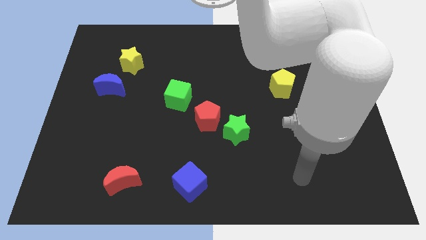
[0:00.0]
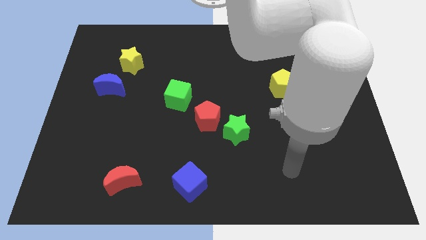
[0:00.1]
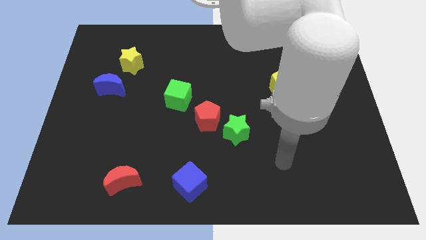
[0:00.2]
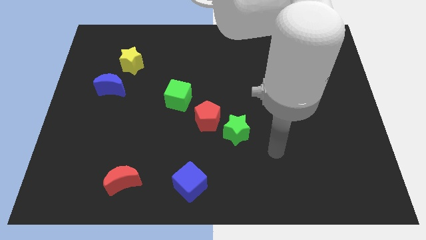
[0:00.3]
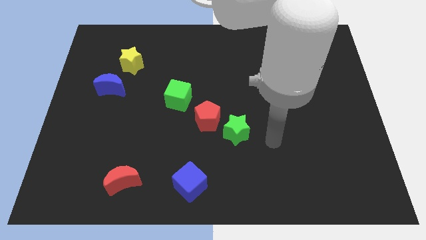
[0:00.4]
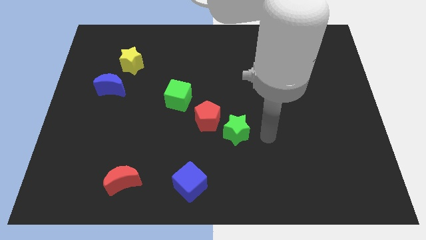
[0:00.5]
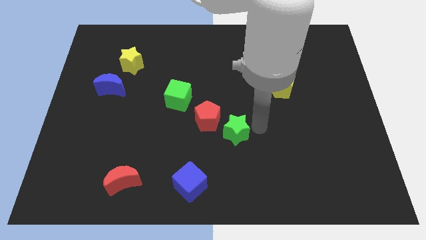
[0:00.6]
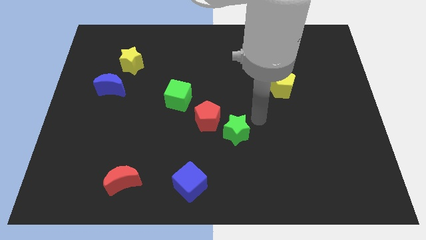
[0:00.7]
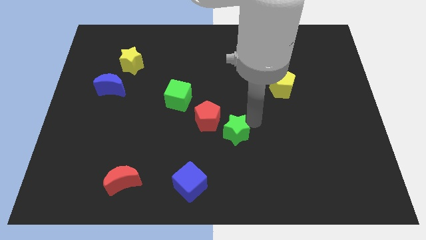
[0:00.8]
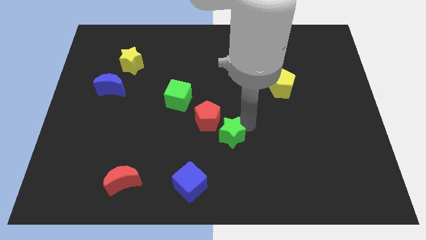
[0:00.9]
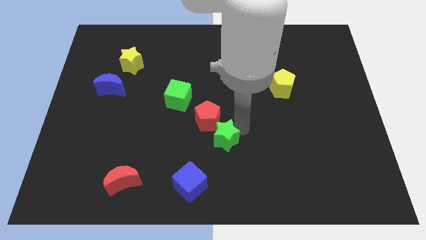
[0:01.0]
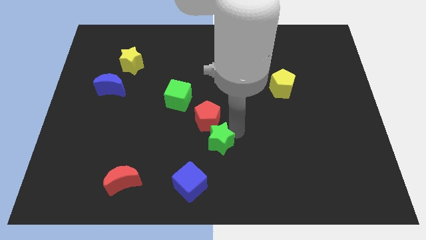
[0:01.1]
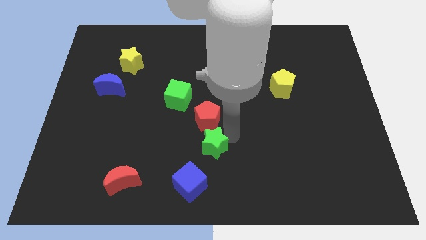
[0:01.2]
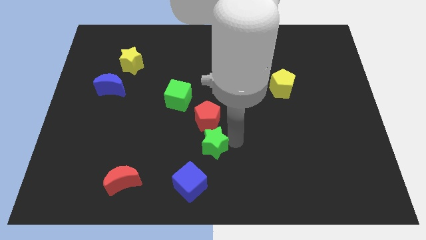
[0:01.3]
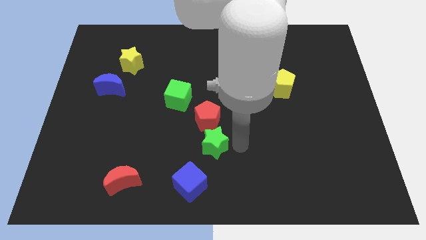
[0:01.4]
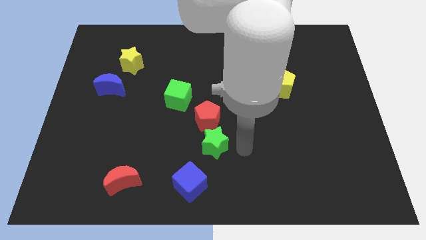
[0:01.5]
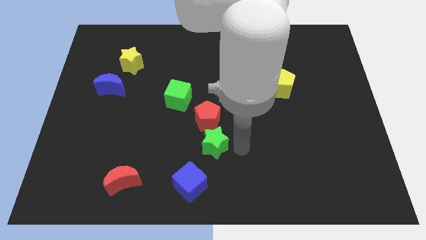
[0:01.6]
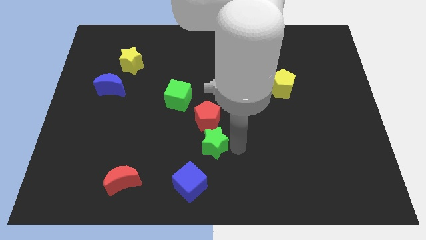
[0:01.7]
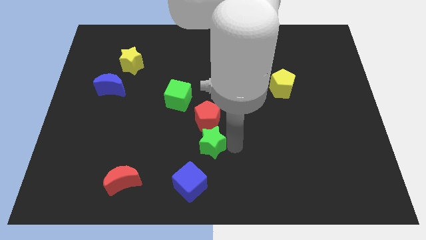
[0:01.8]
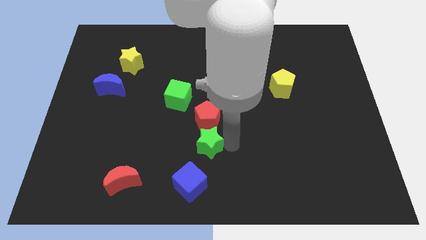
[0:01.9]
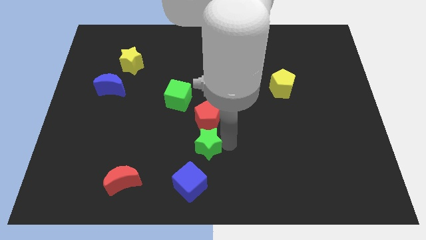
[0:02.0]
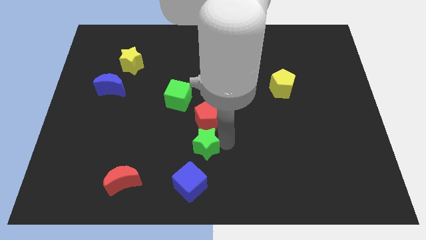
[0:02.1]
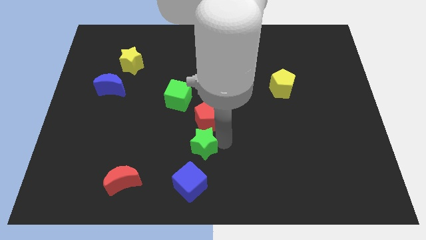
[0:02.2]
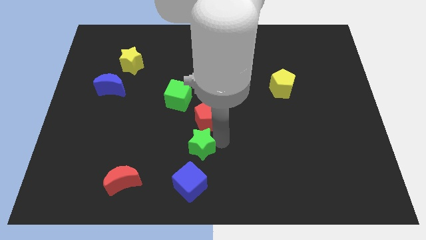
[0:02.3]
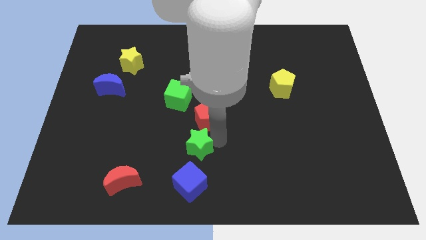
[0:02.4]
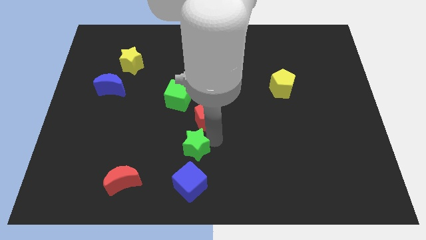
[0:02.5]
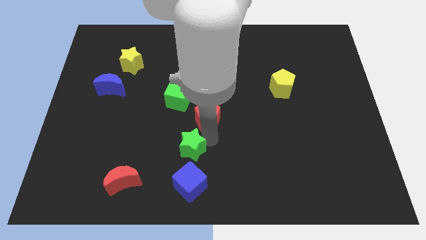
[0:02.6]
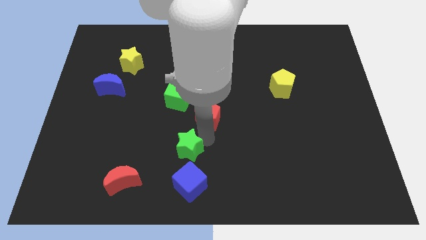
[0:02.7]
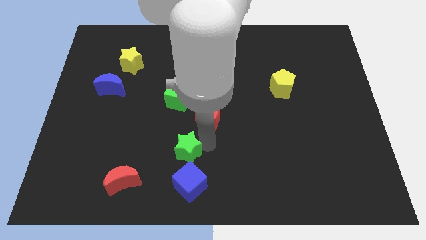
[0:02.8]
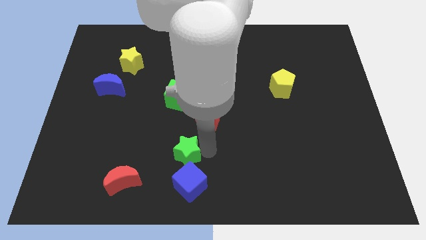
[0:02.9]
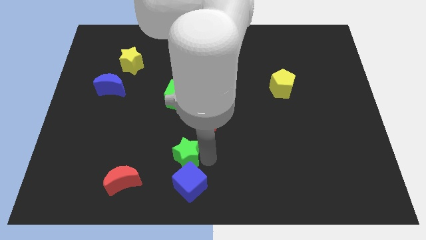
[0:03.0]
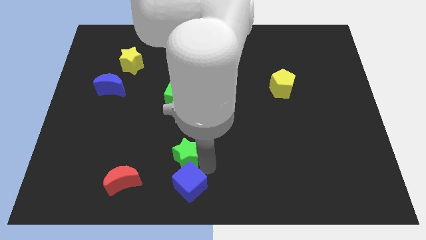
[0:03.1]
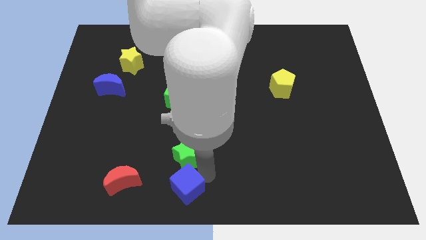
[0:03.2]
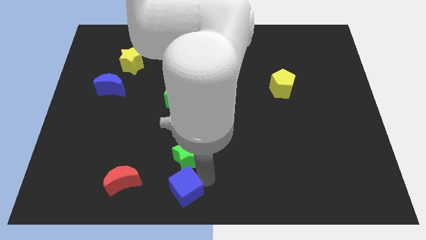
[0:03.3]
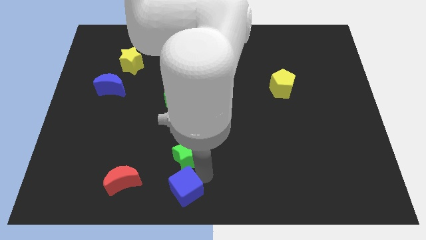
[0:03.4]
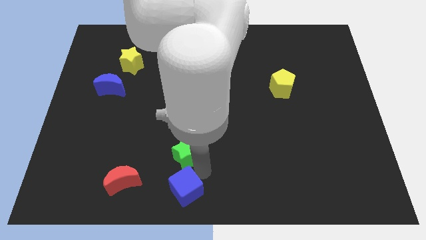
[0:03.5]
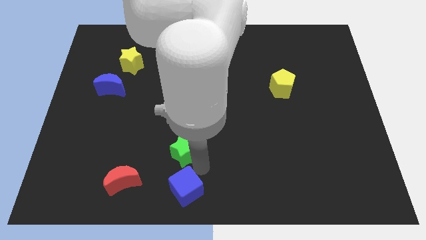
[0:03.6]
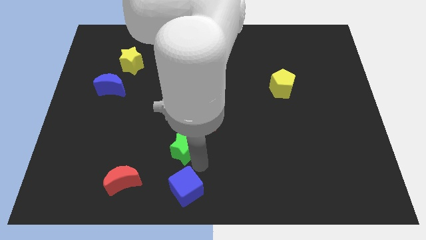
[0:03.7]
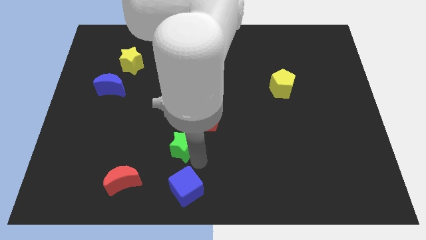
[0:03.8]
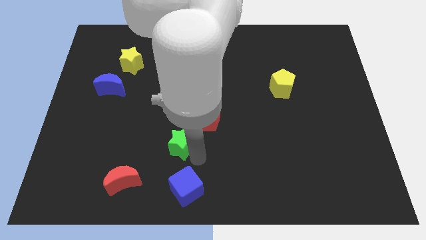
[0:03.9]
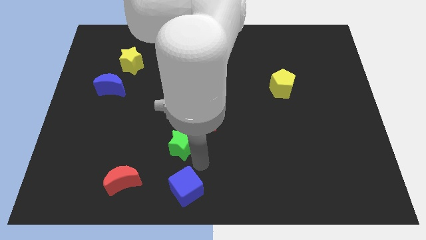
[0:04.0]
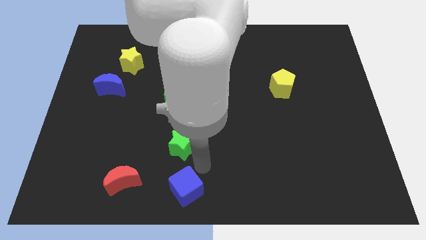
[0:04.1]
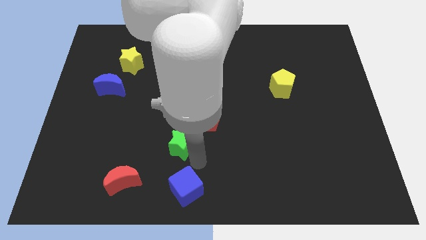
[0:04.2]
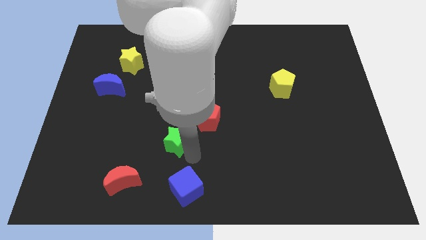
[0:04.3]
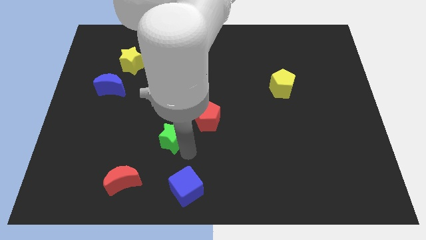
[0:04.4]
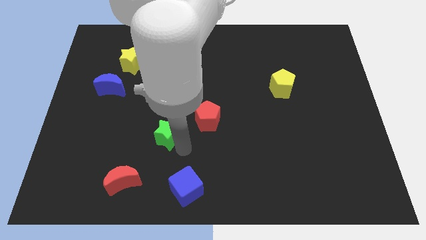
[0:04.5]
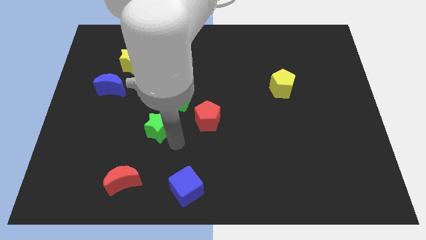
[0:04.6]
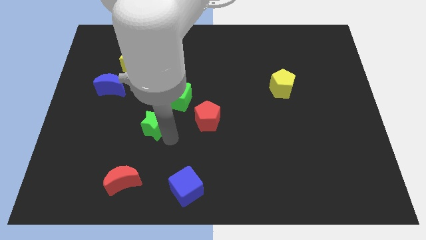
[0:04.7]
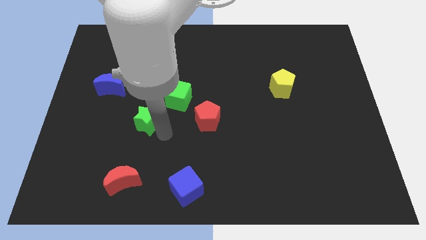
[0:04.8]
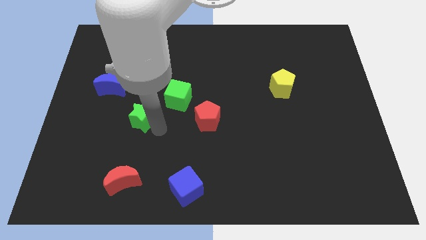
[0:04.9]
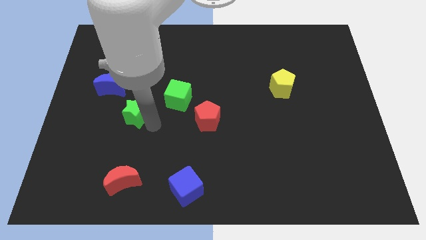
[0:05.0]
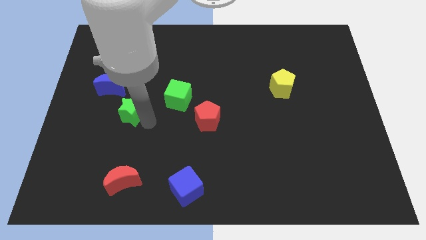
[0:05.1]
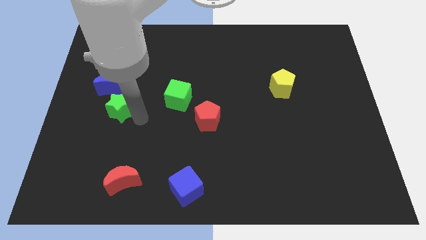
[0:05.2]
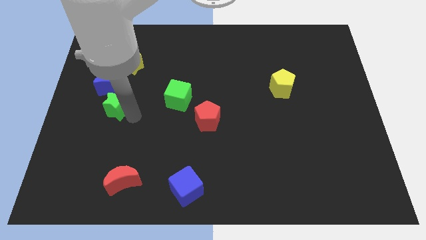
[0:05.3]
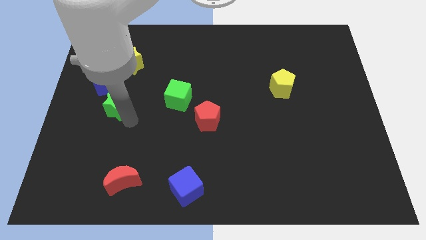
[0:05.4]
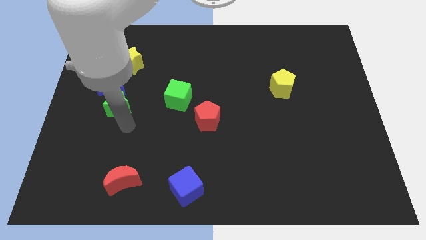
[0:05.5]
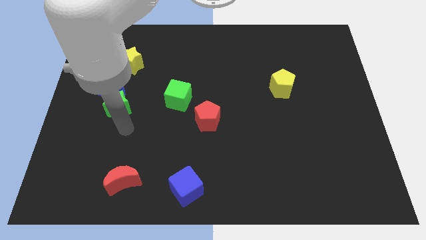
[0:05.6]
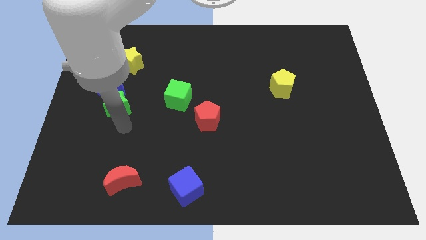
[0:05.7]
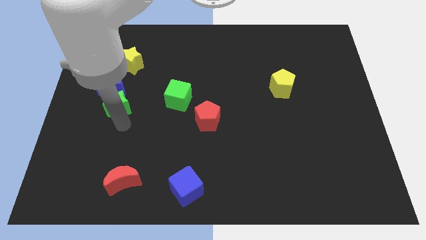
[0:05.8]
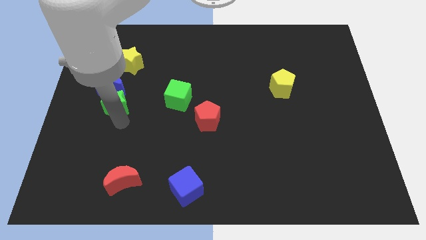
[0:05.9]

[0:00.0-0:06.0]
slide the green star close to the blue moon

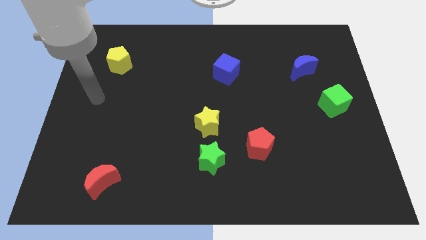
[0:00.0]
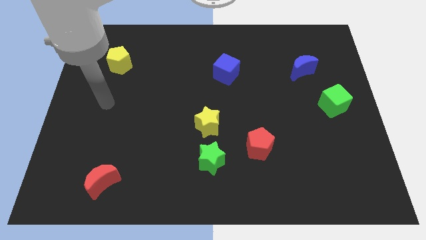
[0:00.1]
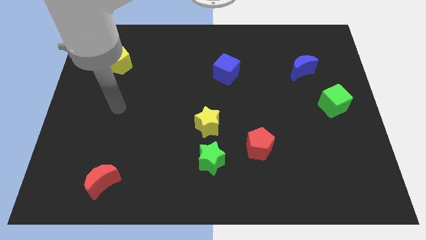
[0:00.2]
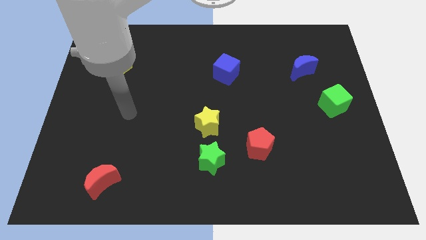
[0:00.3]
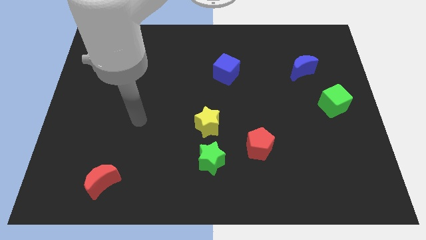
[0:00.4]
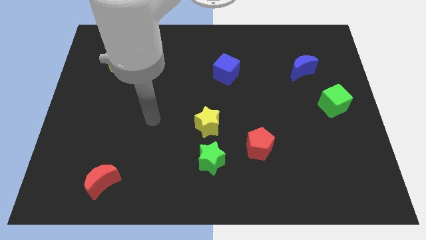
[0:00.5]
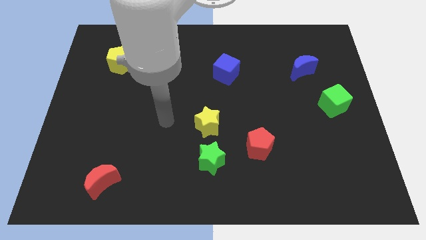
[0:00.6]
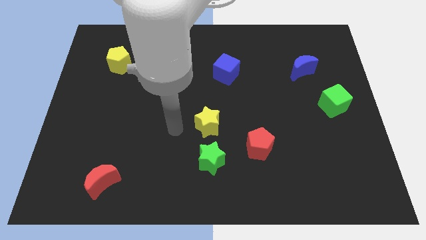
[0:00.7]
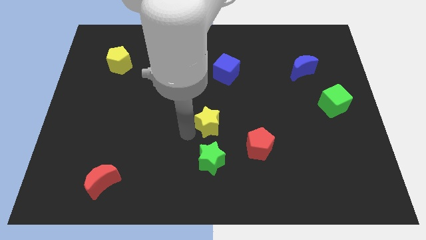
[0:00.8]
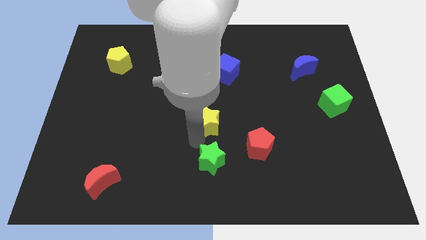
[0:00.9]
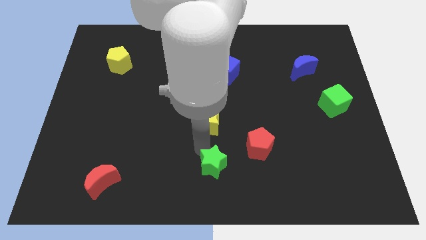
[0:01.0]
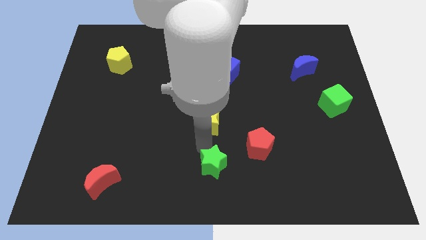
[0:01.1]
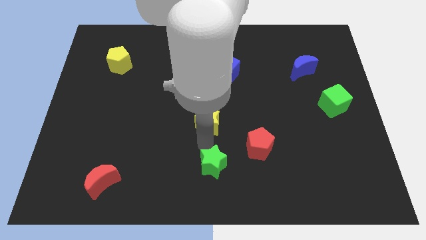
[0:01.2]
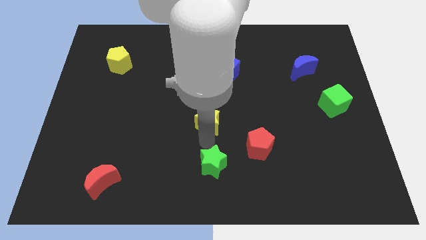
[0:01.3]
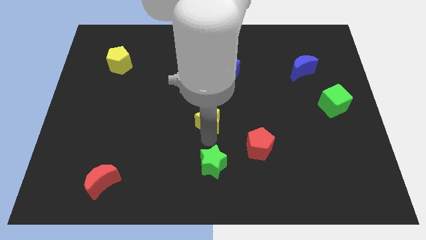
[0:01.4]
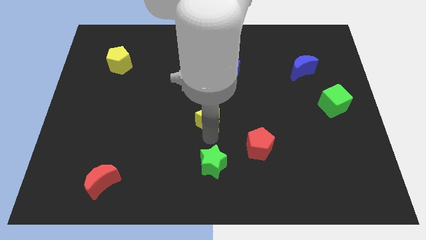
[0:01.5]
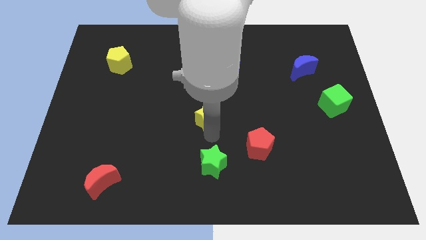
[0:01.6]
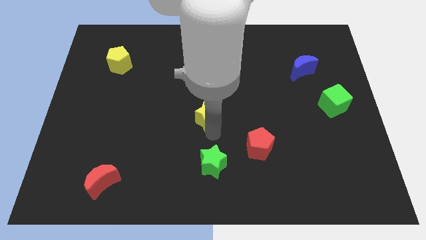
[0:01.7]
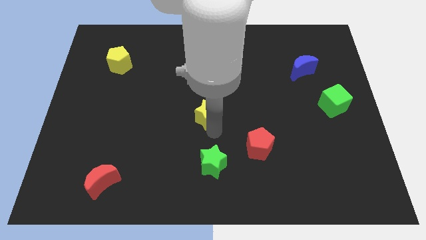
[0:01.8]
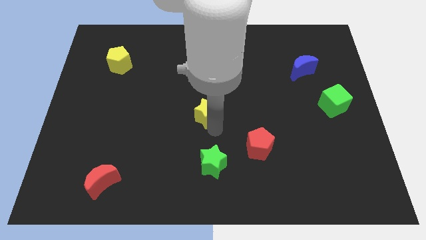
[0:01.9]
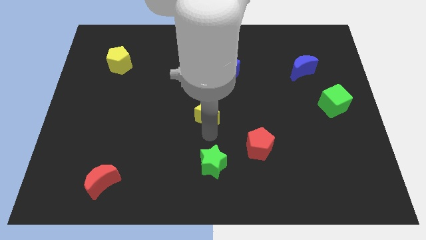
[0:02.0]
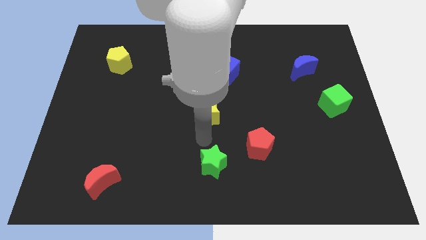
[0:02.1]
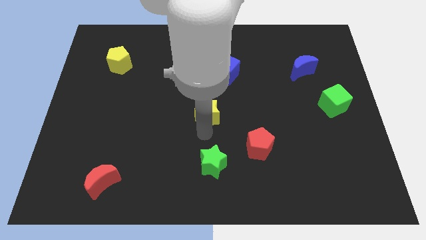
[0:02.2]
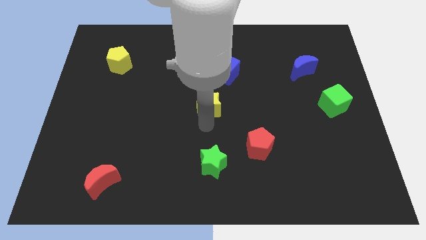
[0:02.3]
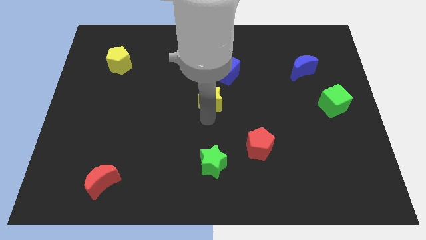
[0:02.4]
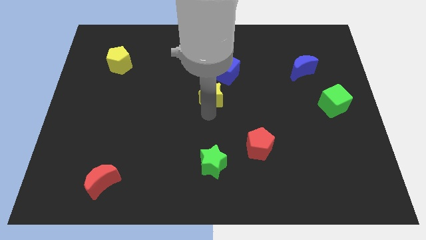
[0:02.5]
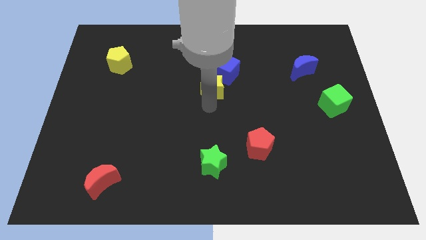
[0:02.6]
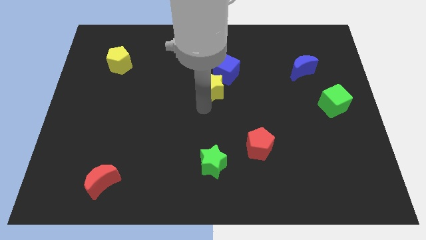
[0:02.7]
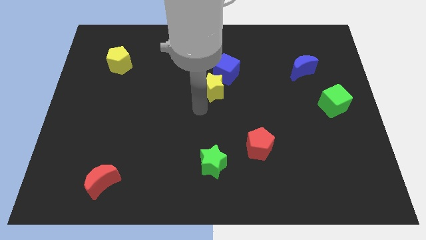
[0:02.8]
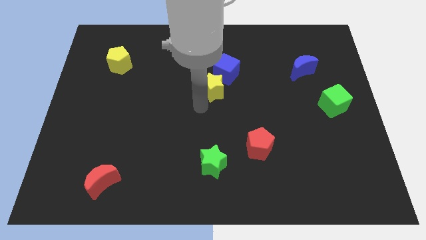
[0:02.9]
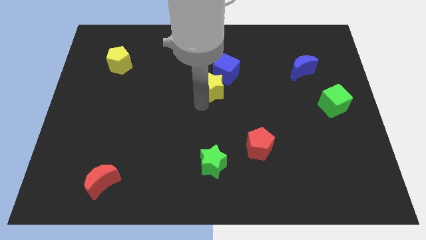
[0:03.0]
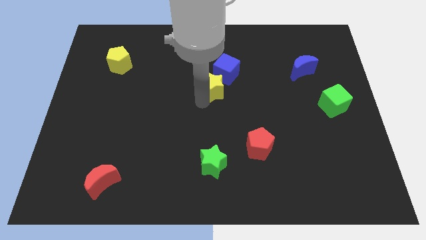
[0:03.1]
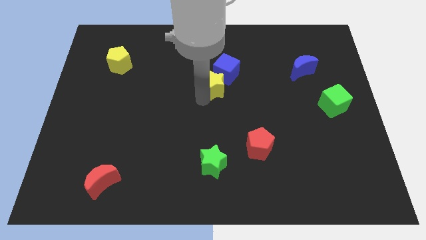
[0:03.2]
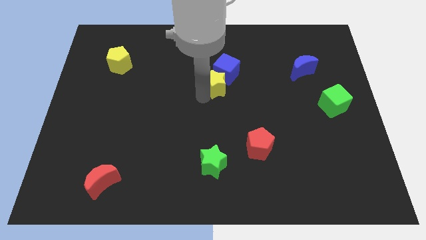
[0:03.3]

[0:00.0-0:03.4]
slide the yellow star towards the blue cube
